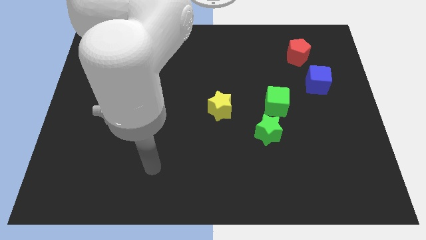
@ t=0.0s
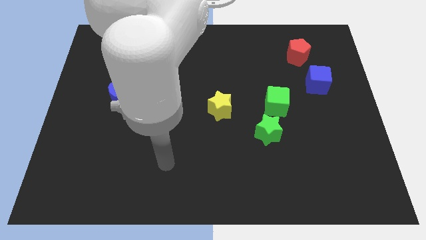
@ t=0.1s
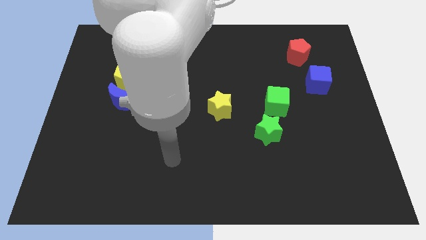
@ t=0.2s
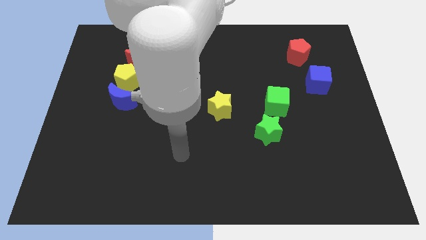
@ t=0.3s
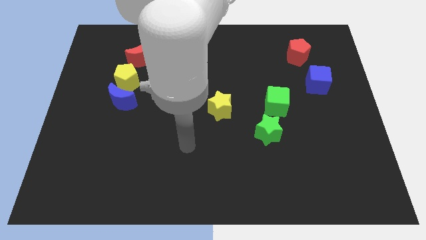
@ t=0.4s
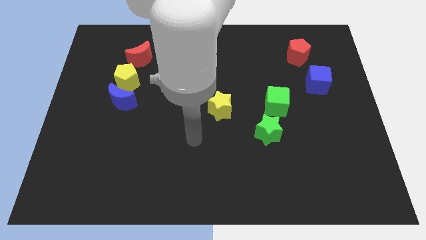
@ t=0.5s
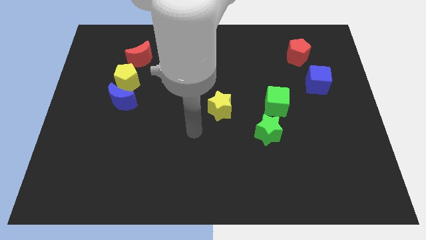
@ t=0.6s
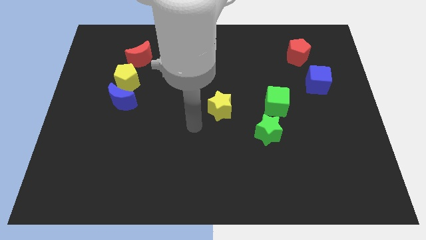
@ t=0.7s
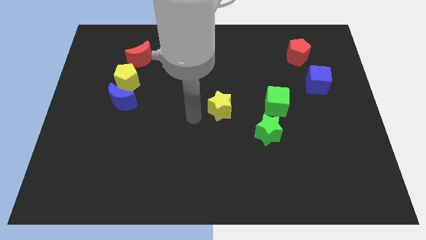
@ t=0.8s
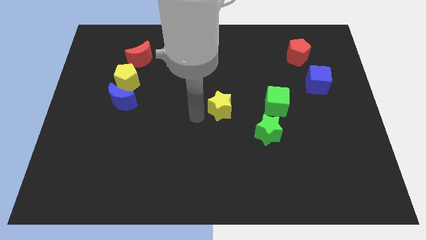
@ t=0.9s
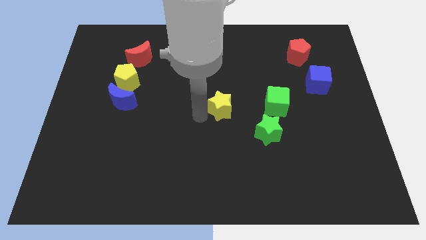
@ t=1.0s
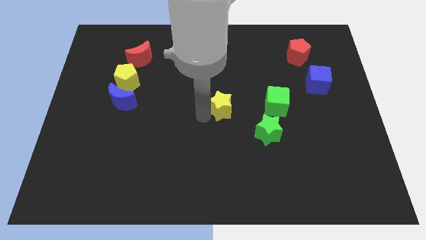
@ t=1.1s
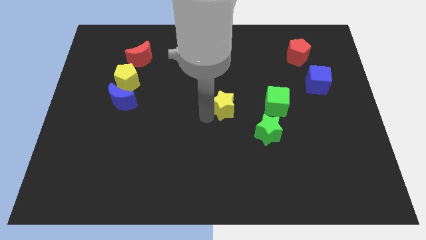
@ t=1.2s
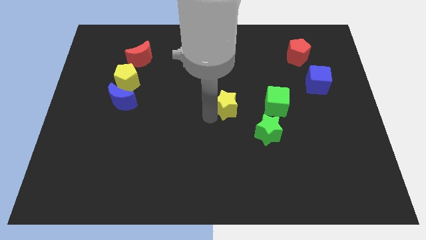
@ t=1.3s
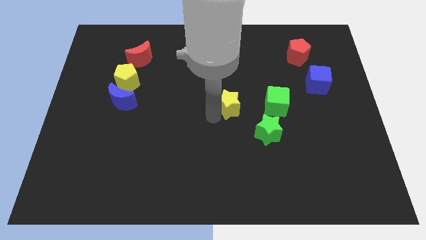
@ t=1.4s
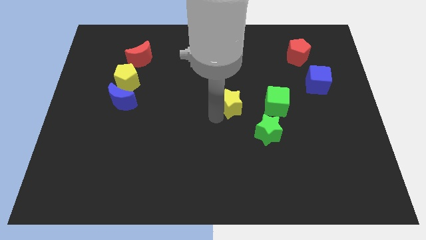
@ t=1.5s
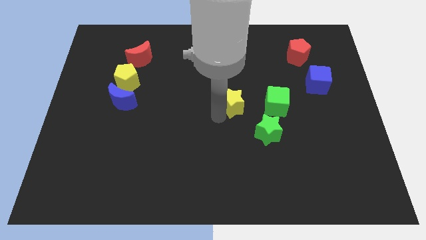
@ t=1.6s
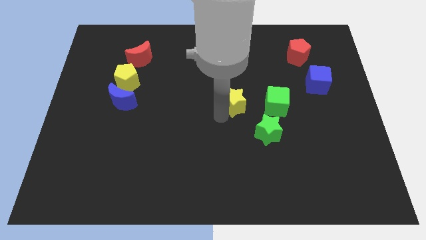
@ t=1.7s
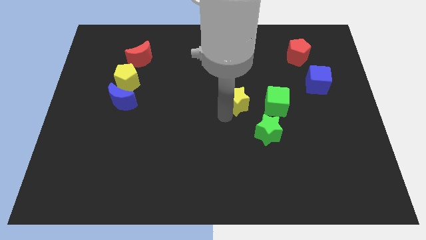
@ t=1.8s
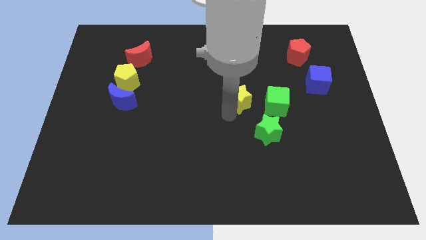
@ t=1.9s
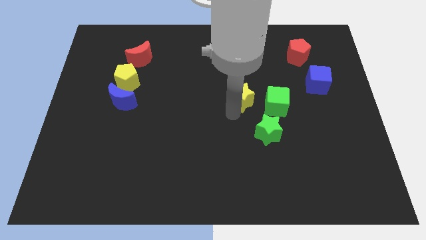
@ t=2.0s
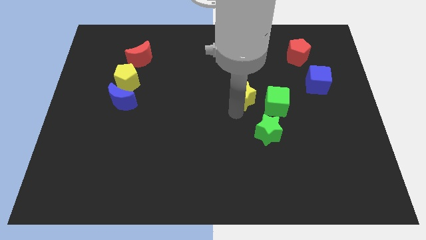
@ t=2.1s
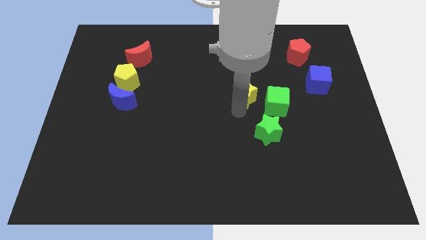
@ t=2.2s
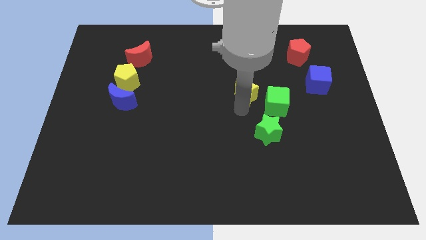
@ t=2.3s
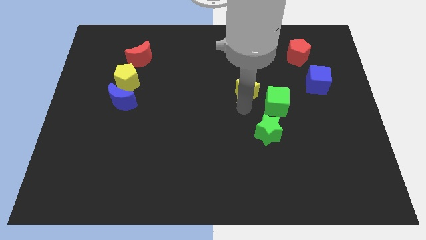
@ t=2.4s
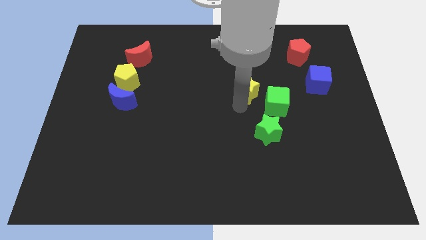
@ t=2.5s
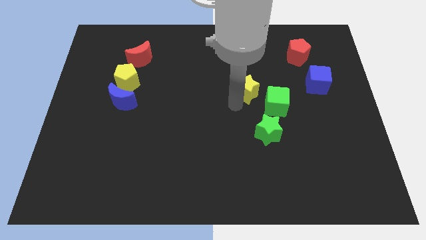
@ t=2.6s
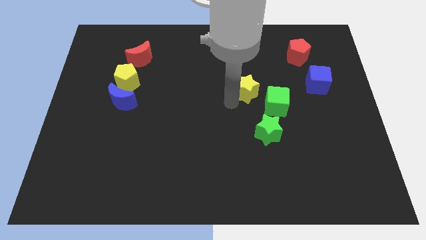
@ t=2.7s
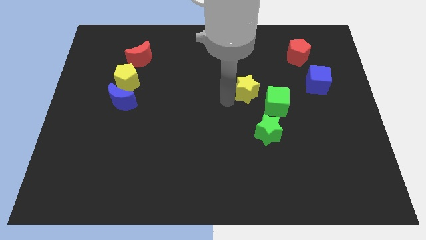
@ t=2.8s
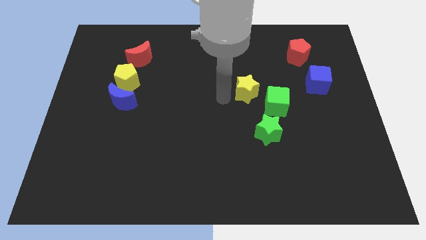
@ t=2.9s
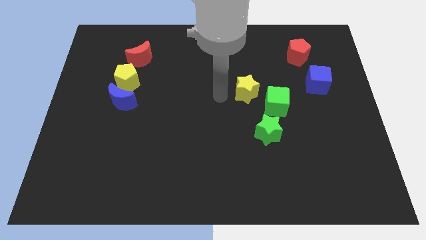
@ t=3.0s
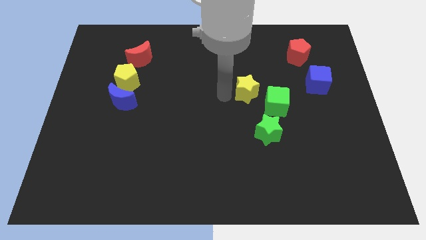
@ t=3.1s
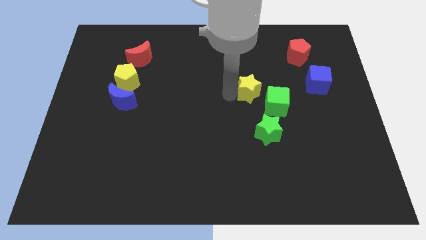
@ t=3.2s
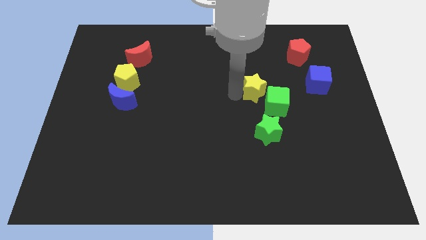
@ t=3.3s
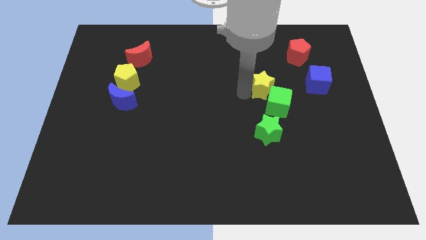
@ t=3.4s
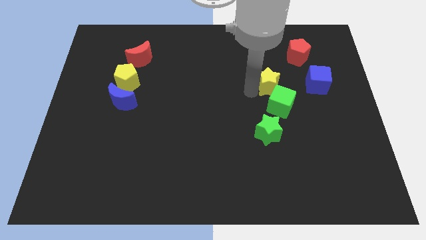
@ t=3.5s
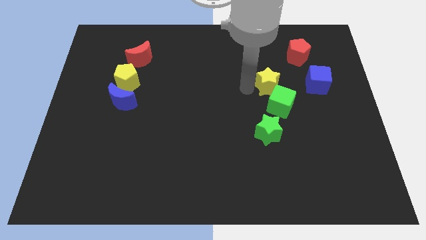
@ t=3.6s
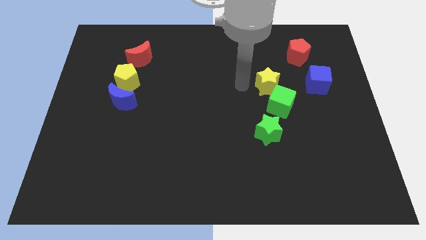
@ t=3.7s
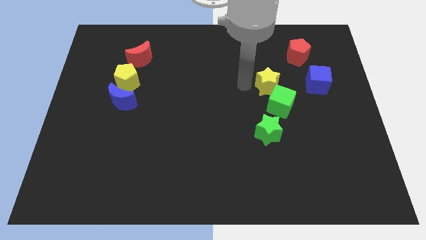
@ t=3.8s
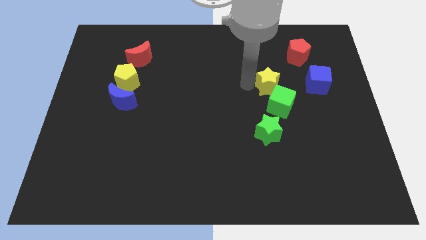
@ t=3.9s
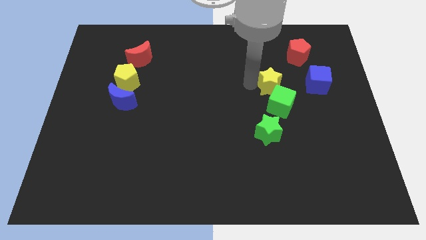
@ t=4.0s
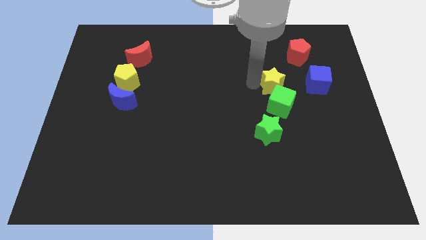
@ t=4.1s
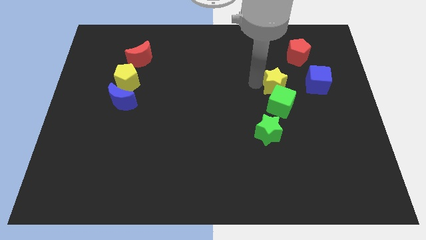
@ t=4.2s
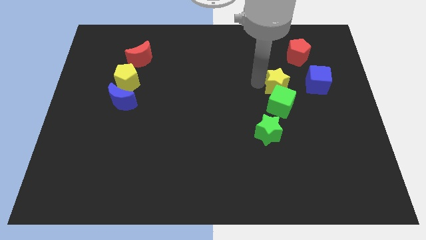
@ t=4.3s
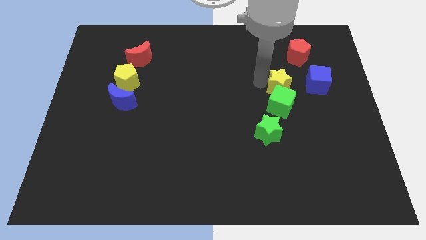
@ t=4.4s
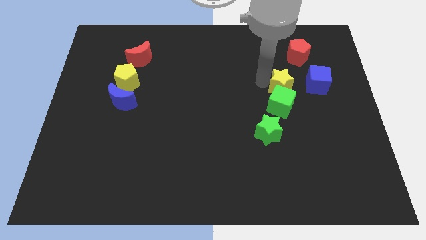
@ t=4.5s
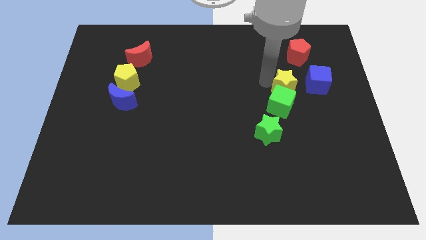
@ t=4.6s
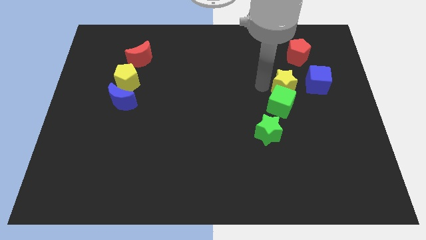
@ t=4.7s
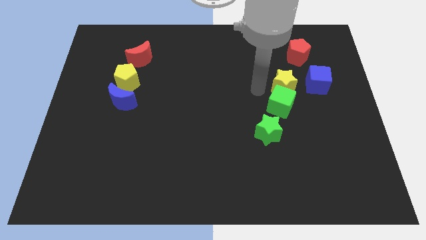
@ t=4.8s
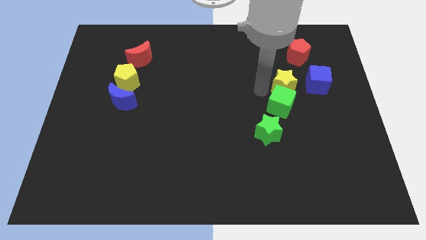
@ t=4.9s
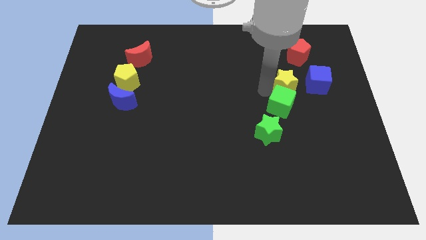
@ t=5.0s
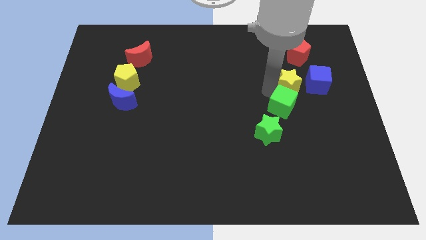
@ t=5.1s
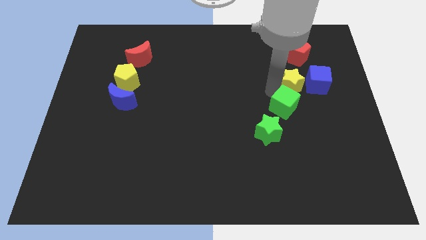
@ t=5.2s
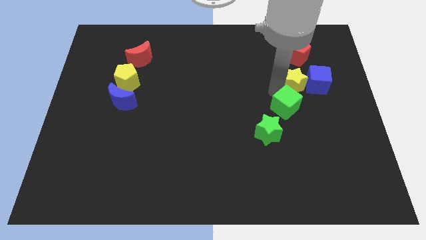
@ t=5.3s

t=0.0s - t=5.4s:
move the yellow star towards the blue cube

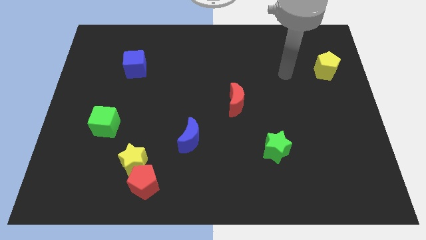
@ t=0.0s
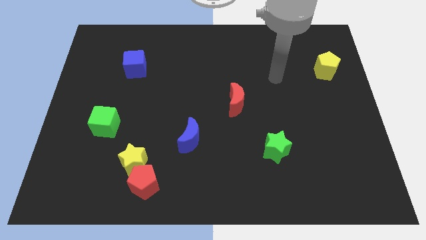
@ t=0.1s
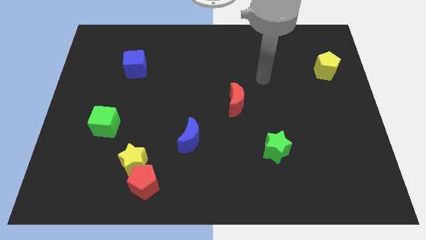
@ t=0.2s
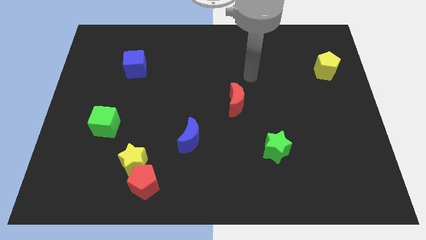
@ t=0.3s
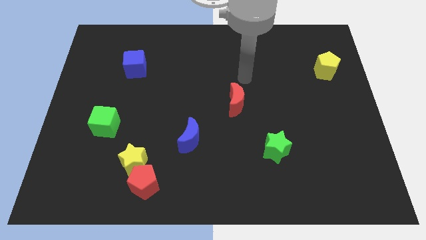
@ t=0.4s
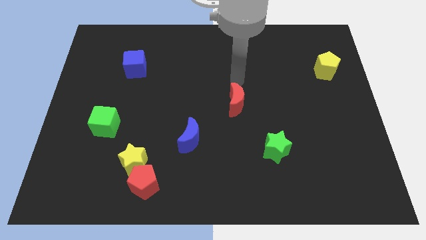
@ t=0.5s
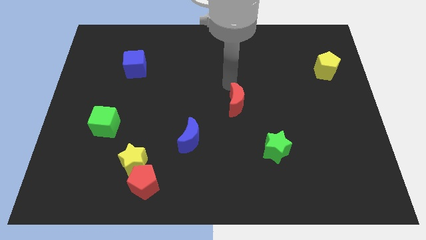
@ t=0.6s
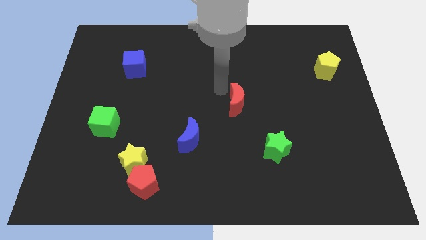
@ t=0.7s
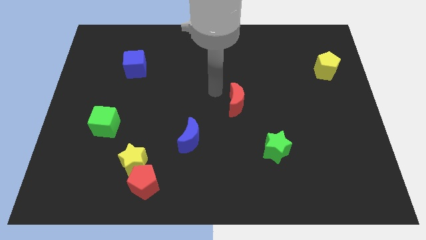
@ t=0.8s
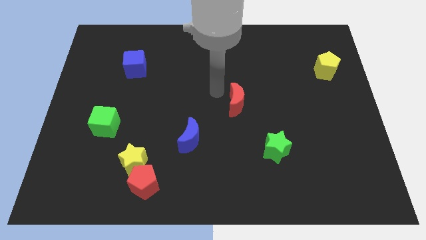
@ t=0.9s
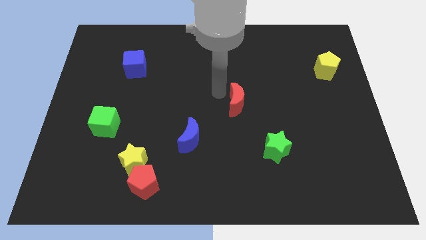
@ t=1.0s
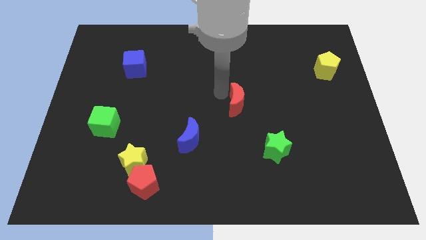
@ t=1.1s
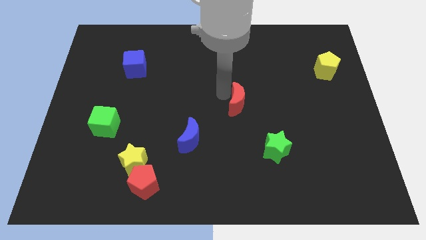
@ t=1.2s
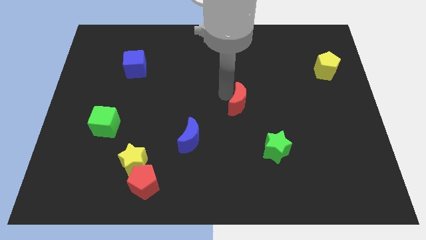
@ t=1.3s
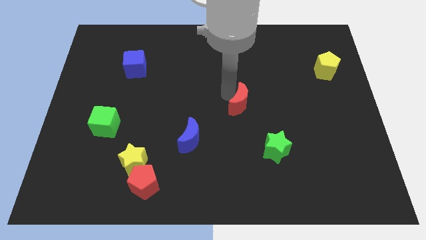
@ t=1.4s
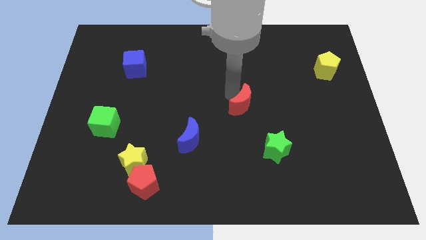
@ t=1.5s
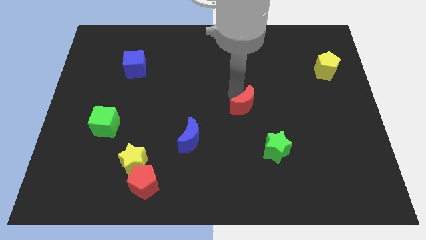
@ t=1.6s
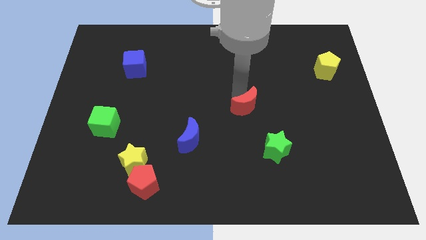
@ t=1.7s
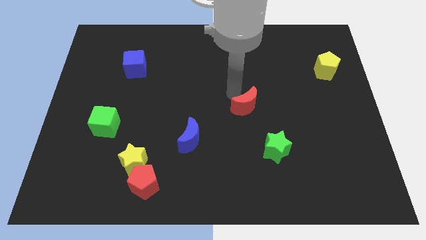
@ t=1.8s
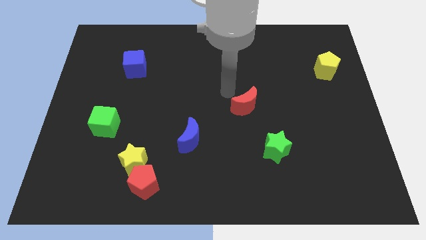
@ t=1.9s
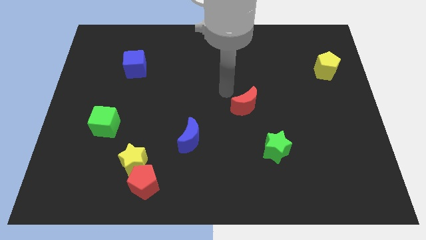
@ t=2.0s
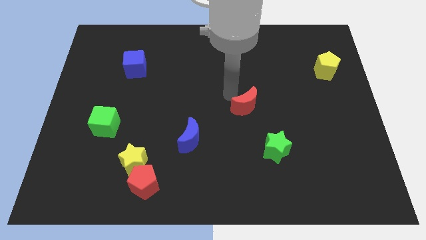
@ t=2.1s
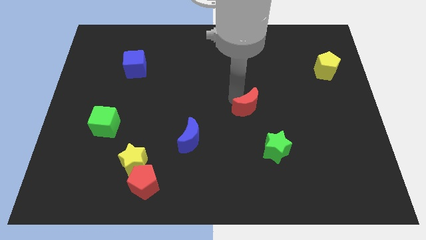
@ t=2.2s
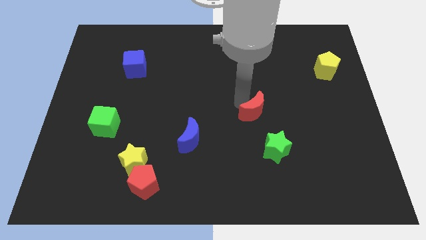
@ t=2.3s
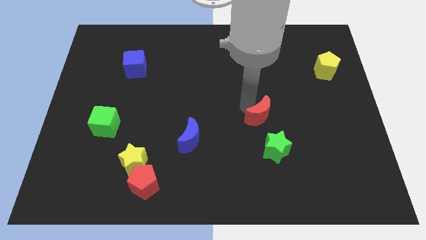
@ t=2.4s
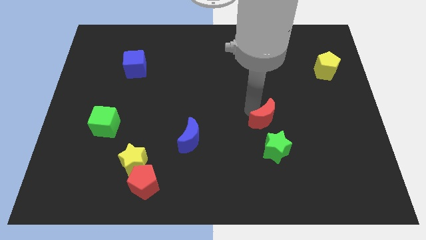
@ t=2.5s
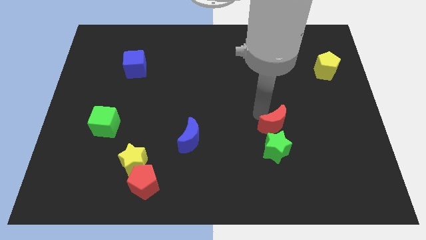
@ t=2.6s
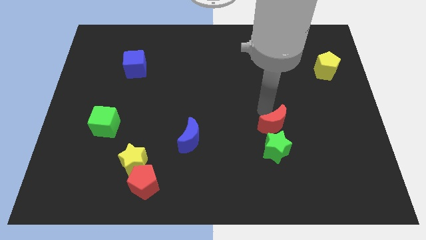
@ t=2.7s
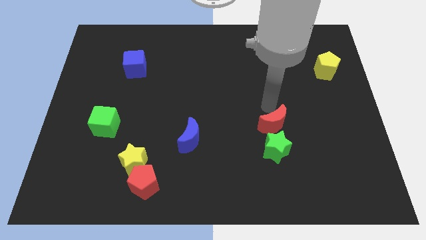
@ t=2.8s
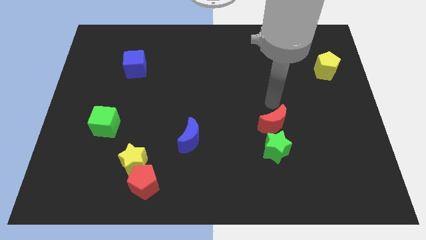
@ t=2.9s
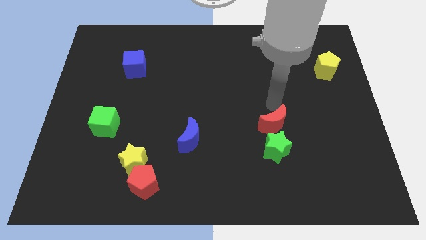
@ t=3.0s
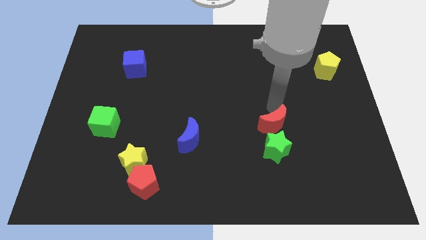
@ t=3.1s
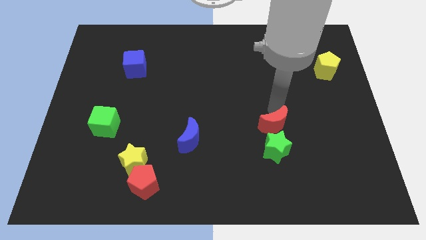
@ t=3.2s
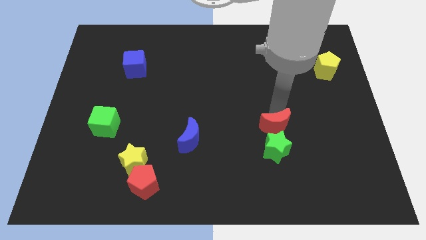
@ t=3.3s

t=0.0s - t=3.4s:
slide the red moon to the green star
